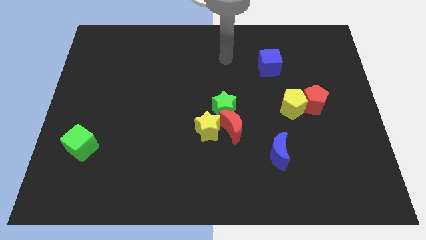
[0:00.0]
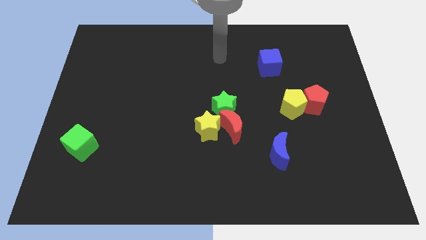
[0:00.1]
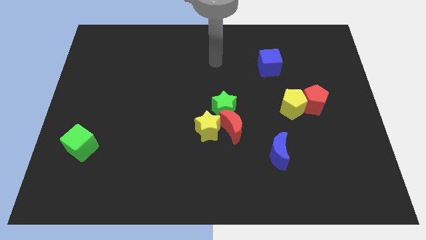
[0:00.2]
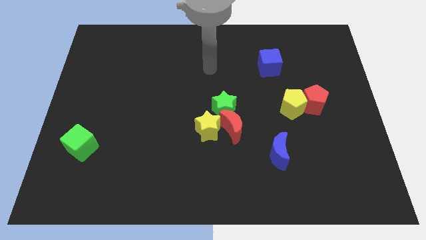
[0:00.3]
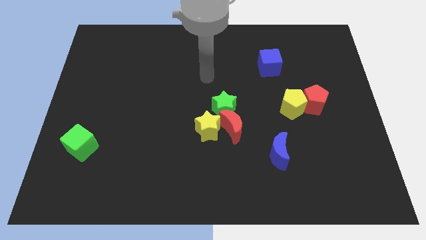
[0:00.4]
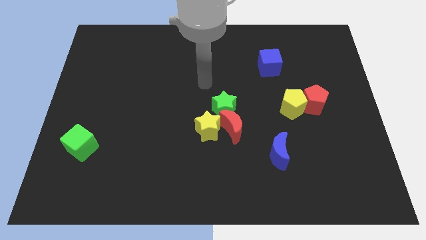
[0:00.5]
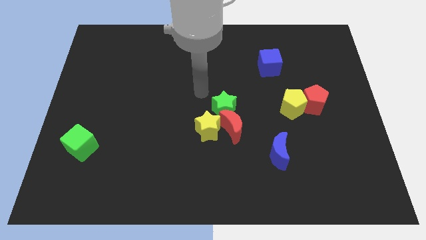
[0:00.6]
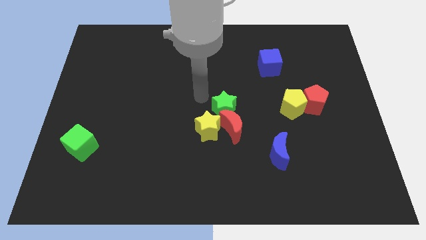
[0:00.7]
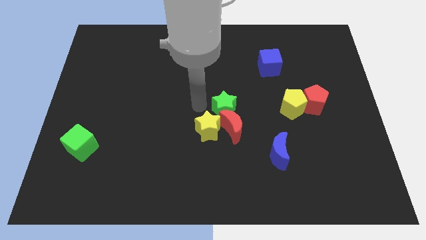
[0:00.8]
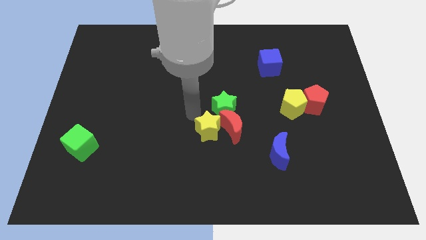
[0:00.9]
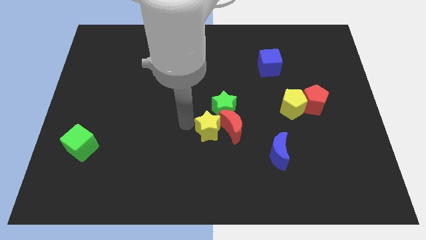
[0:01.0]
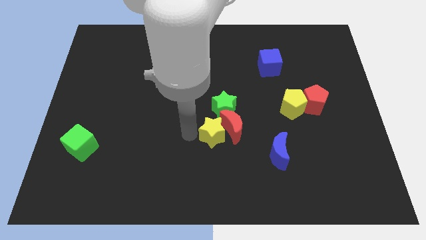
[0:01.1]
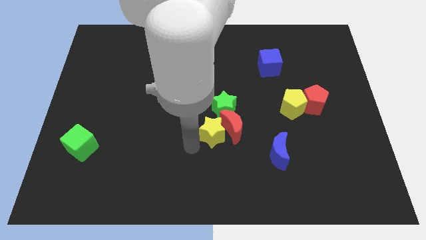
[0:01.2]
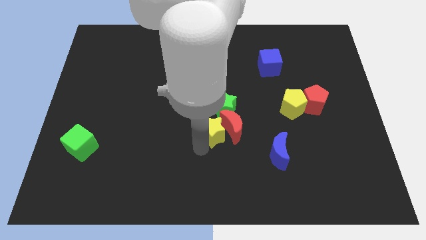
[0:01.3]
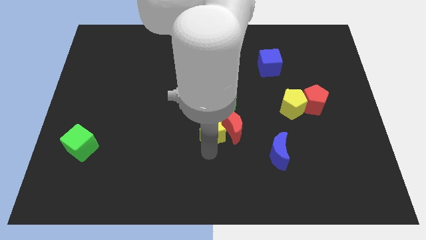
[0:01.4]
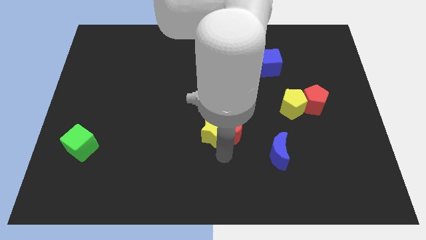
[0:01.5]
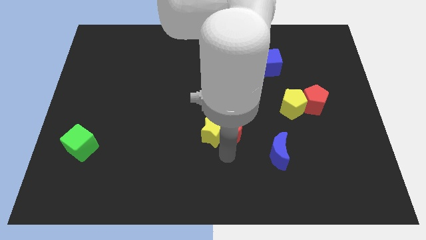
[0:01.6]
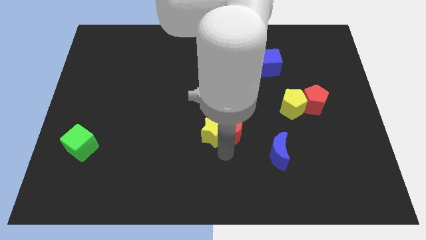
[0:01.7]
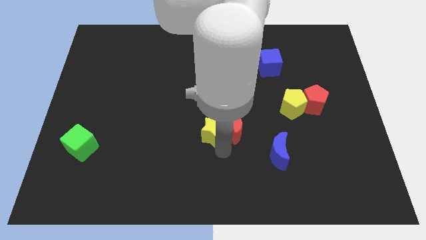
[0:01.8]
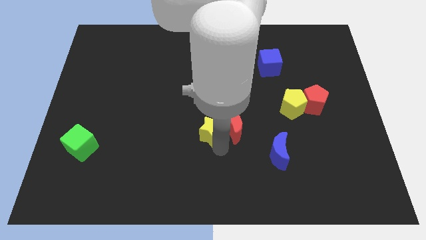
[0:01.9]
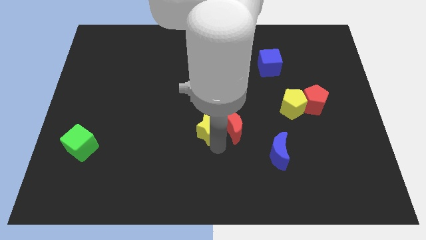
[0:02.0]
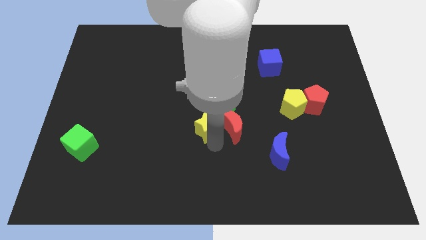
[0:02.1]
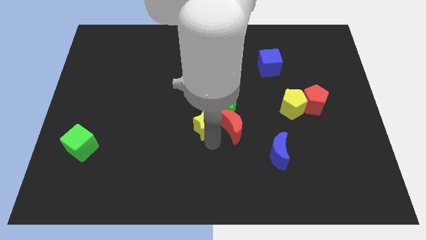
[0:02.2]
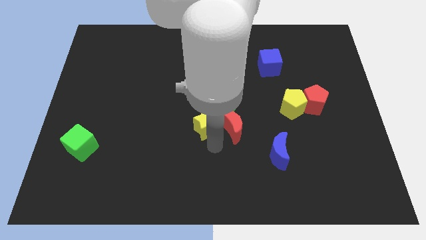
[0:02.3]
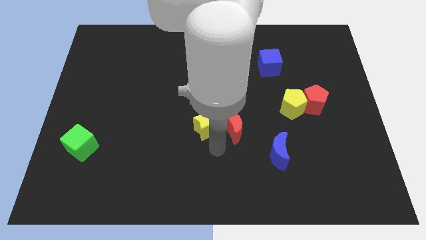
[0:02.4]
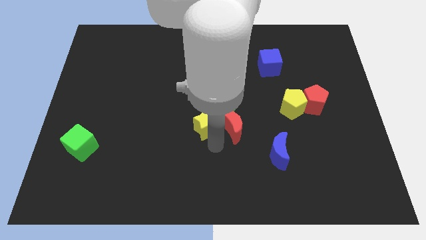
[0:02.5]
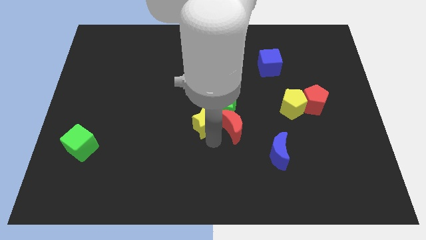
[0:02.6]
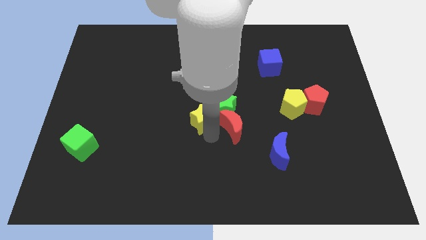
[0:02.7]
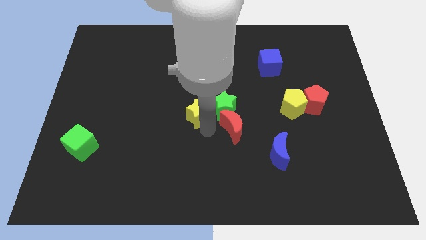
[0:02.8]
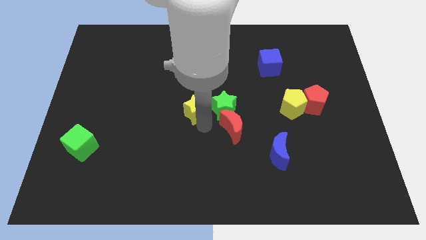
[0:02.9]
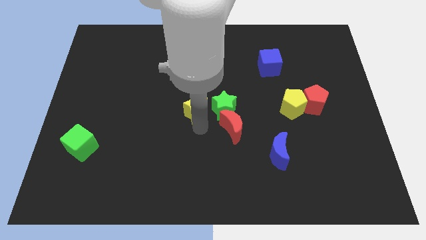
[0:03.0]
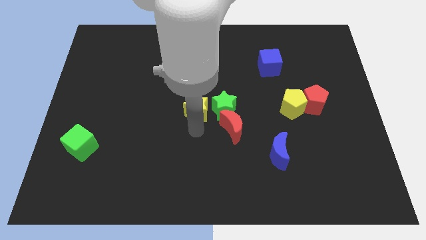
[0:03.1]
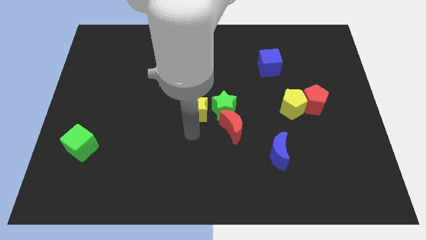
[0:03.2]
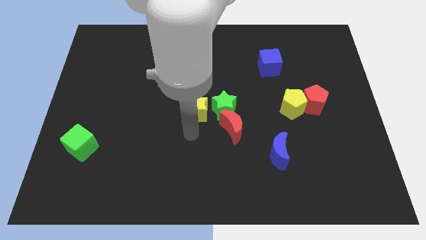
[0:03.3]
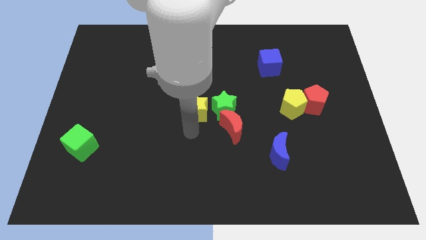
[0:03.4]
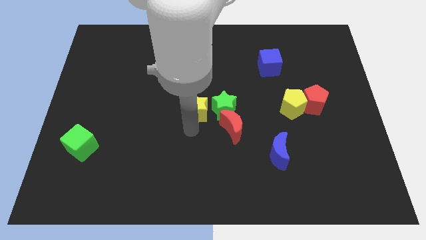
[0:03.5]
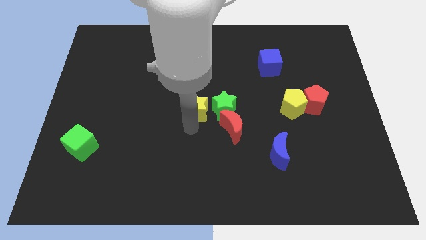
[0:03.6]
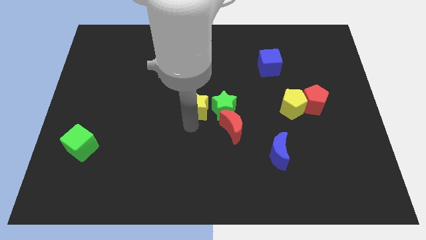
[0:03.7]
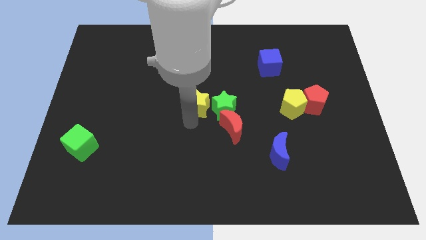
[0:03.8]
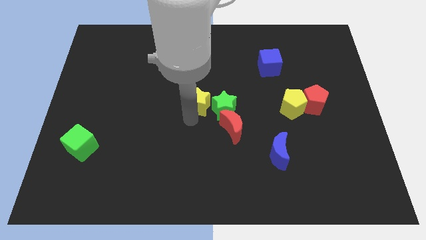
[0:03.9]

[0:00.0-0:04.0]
slide the yellow star a little upwards

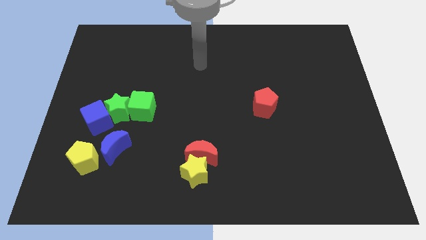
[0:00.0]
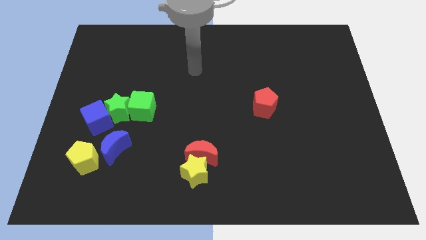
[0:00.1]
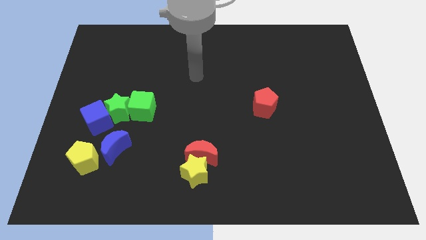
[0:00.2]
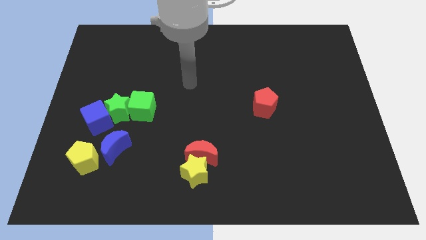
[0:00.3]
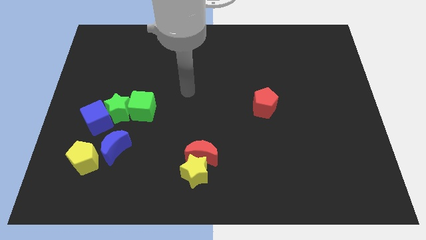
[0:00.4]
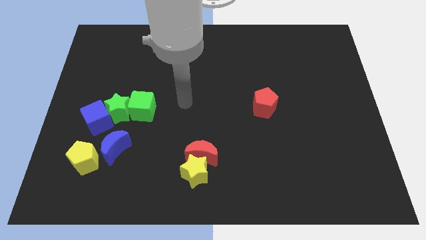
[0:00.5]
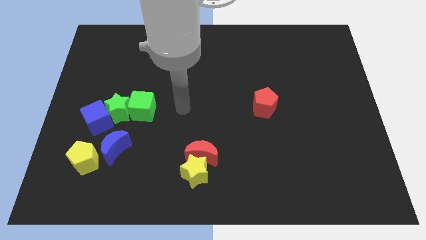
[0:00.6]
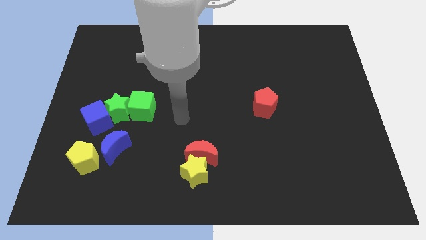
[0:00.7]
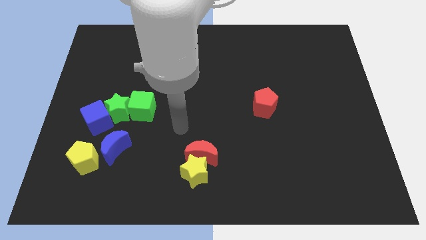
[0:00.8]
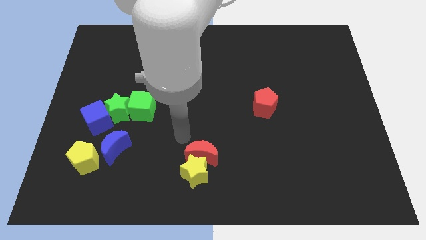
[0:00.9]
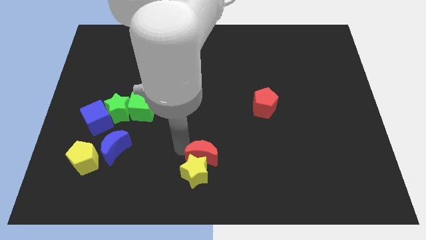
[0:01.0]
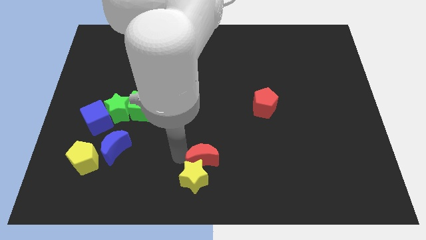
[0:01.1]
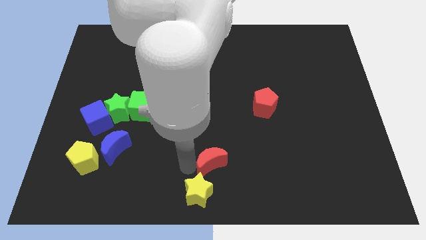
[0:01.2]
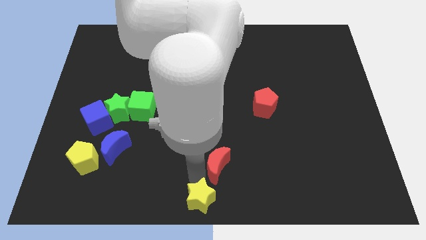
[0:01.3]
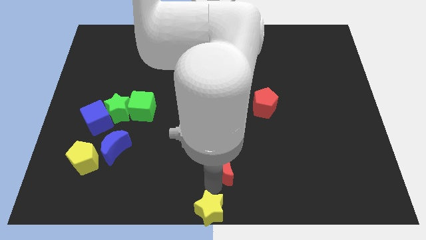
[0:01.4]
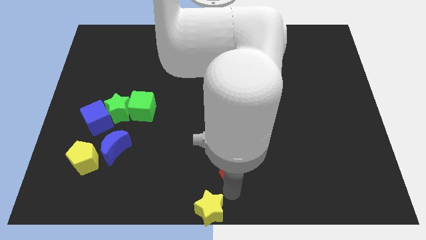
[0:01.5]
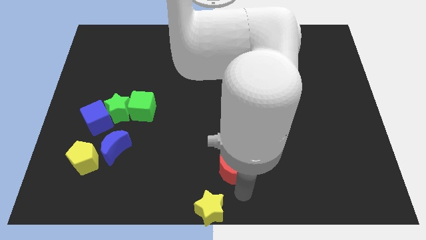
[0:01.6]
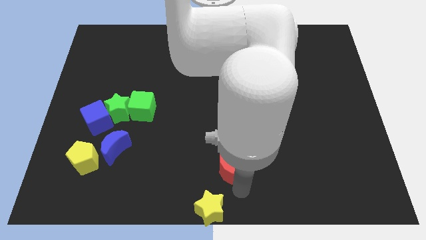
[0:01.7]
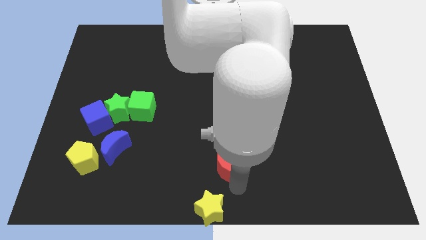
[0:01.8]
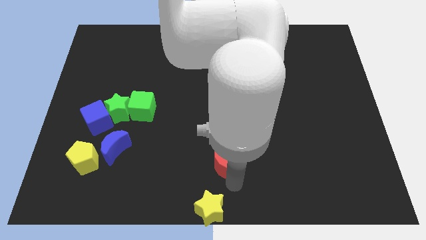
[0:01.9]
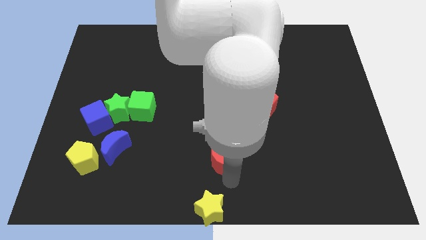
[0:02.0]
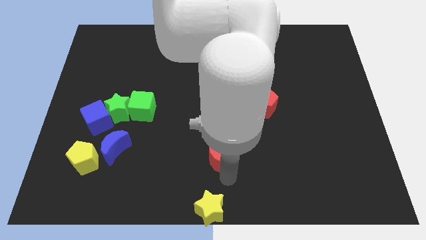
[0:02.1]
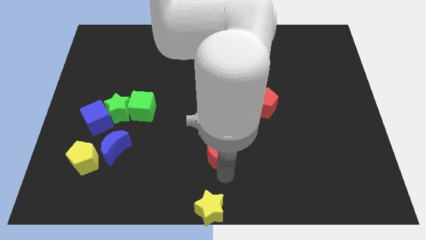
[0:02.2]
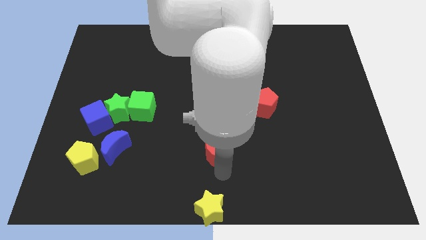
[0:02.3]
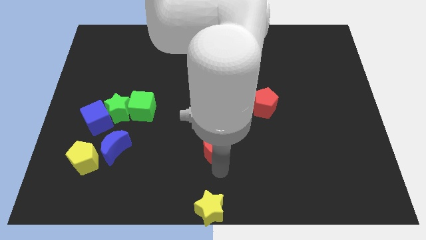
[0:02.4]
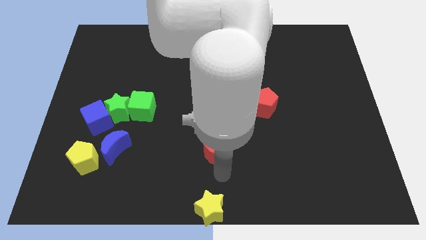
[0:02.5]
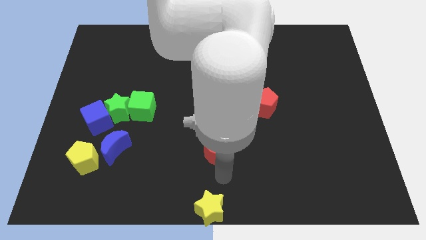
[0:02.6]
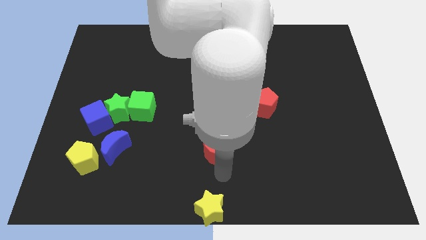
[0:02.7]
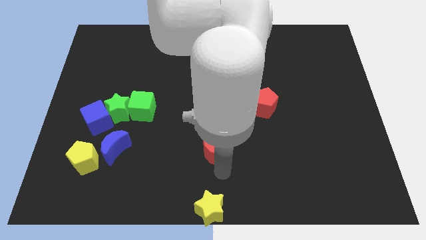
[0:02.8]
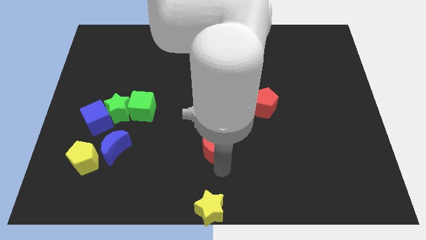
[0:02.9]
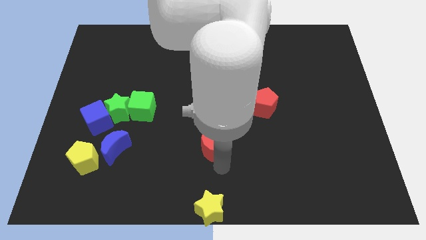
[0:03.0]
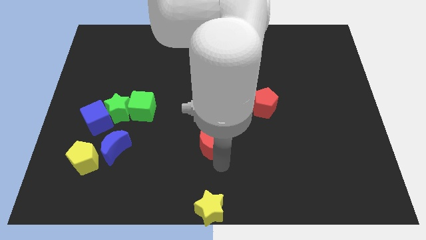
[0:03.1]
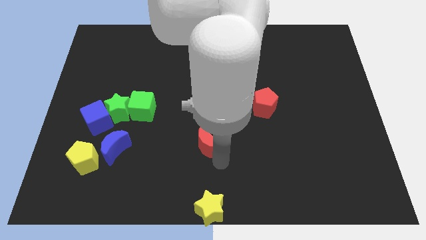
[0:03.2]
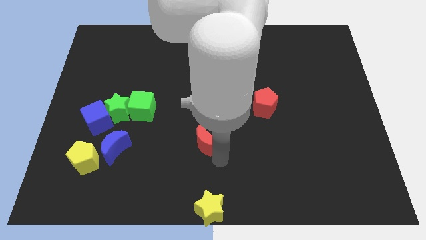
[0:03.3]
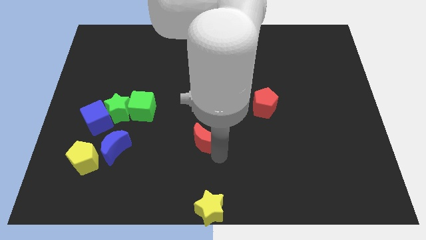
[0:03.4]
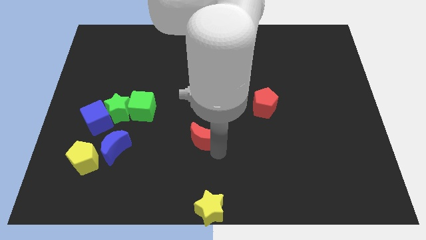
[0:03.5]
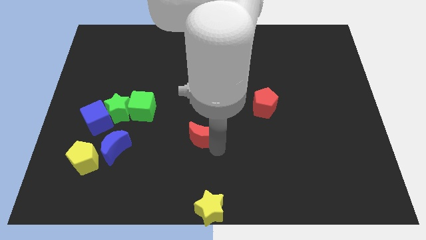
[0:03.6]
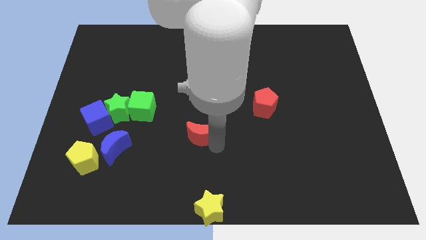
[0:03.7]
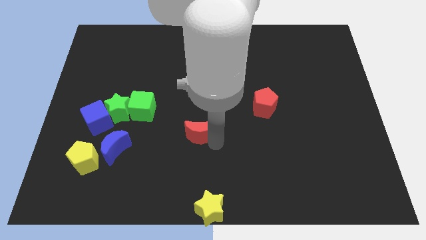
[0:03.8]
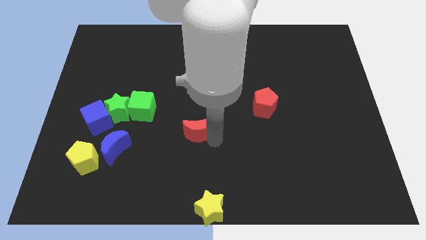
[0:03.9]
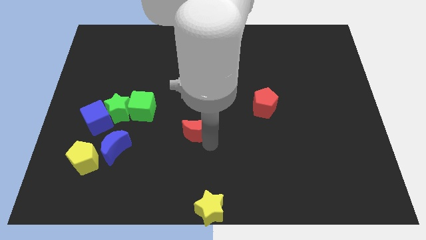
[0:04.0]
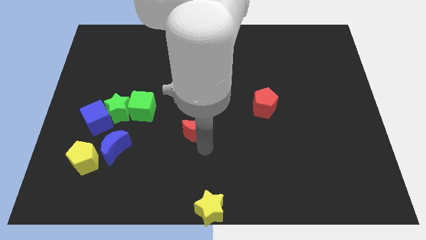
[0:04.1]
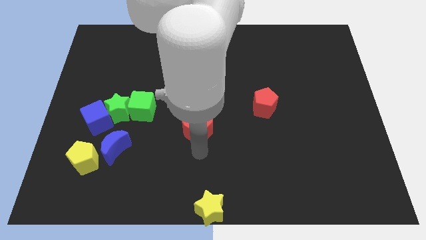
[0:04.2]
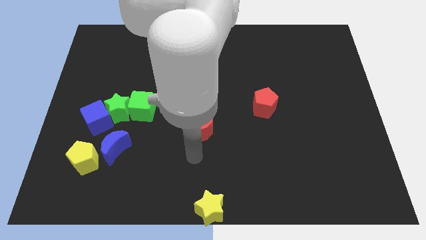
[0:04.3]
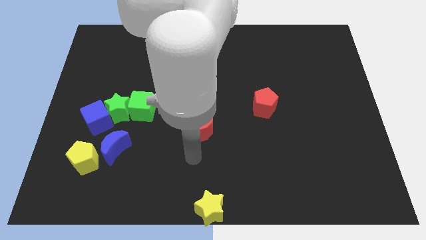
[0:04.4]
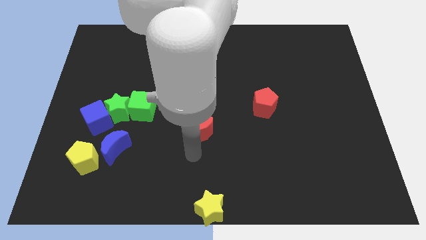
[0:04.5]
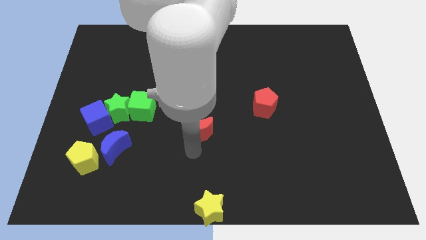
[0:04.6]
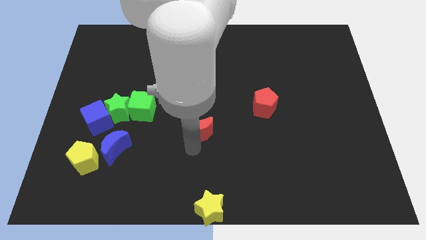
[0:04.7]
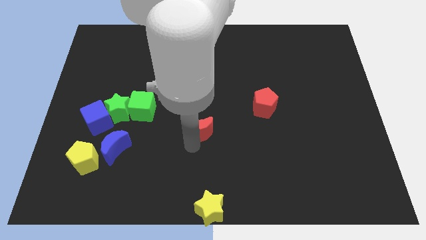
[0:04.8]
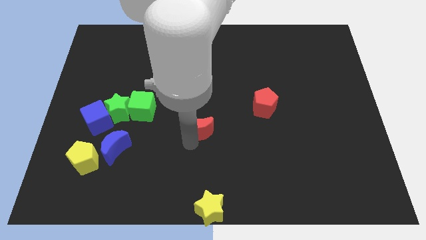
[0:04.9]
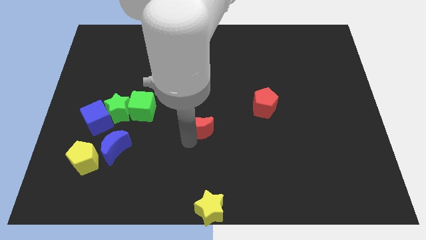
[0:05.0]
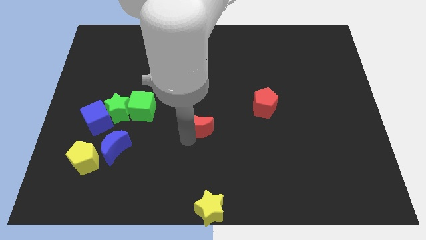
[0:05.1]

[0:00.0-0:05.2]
slide the red moon upwards a little
